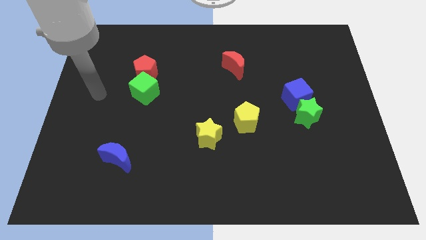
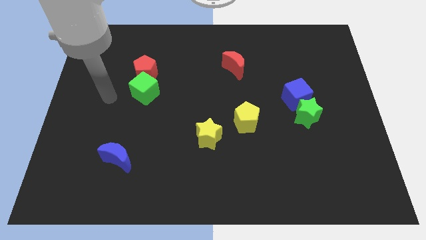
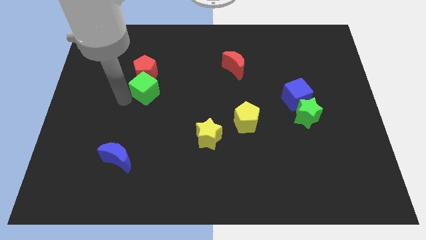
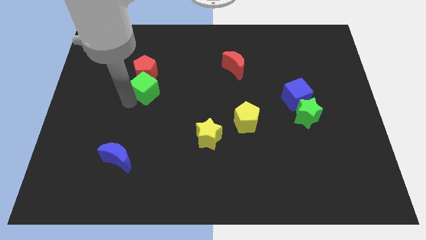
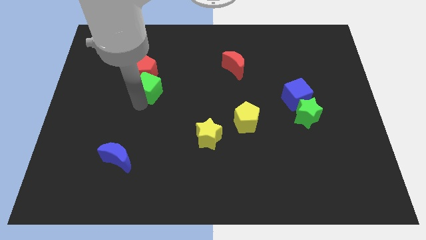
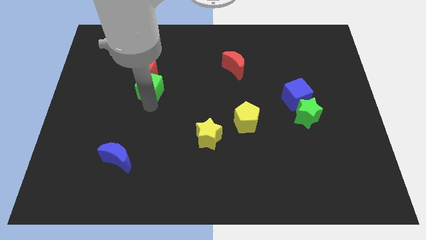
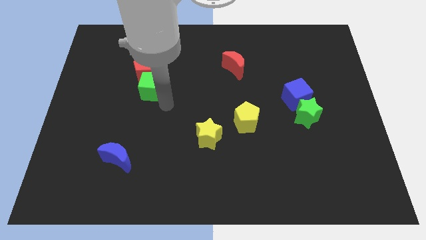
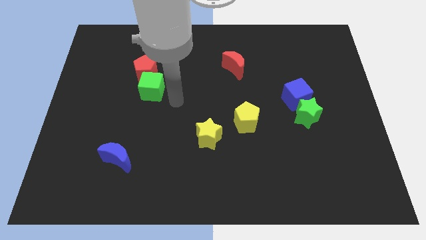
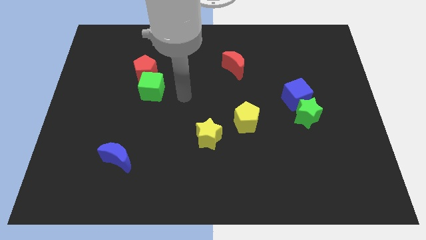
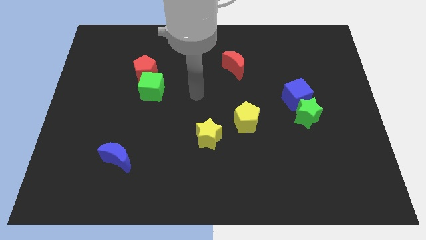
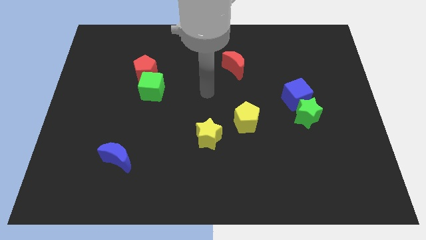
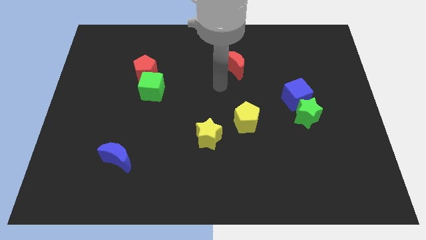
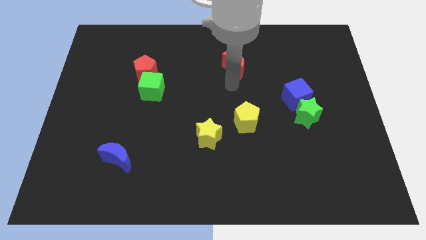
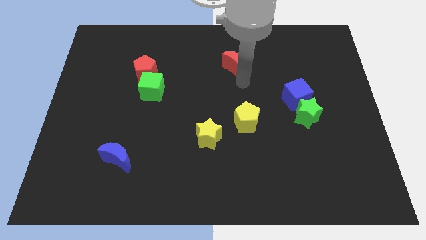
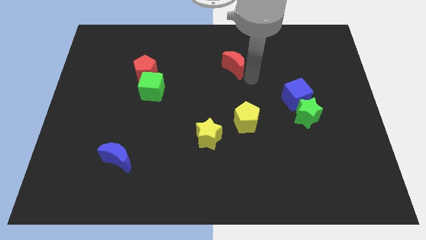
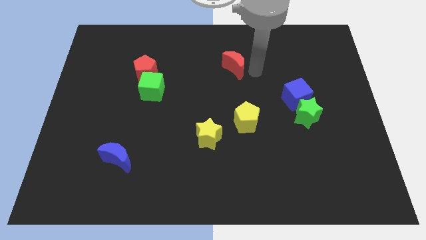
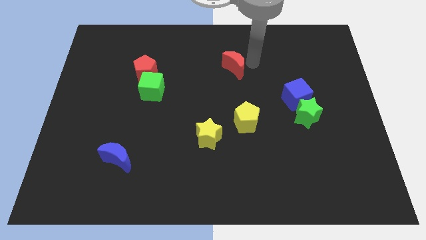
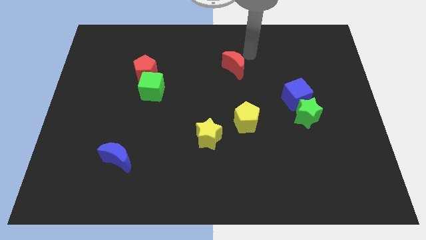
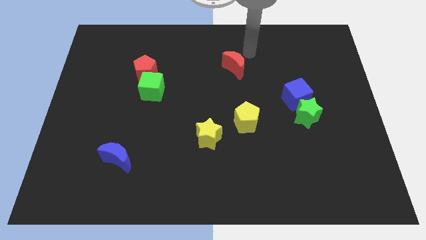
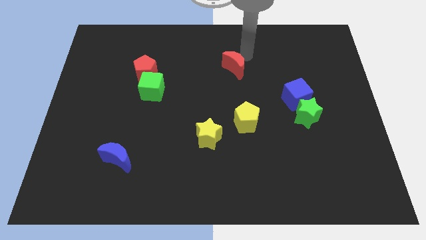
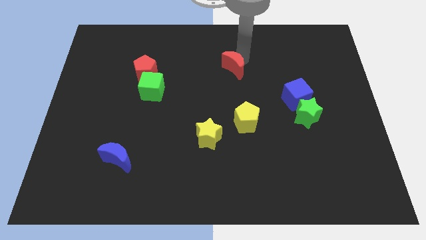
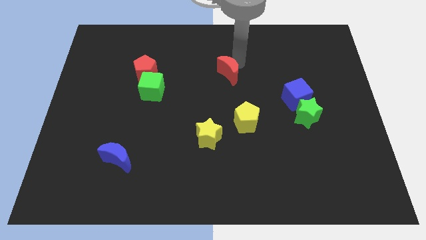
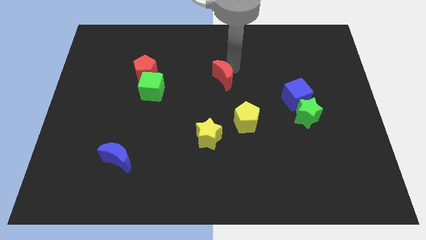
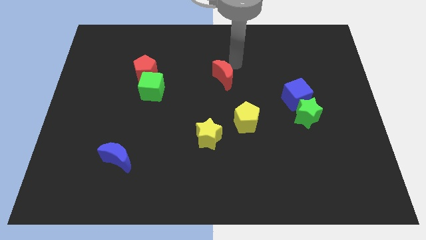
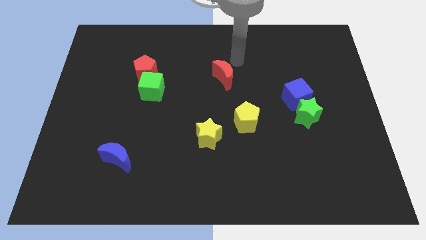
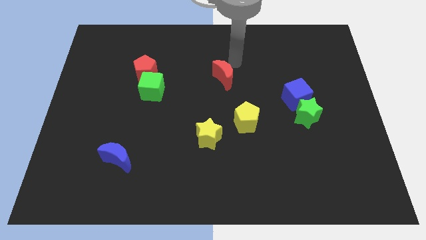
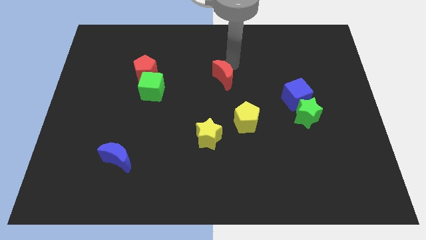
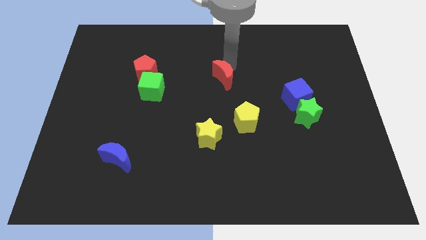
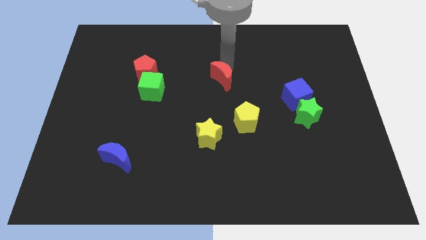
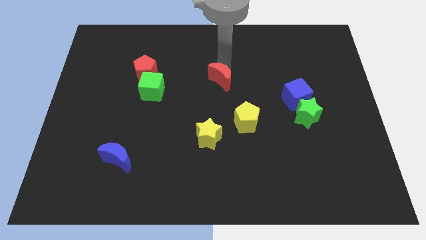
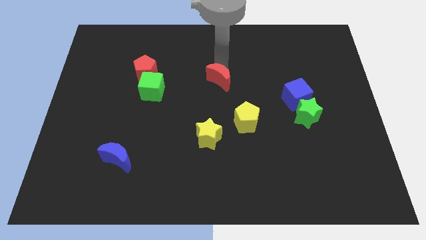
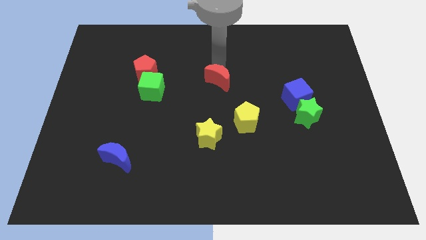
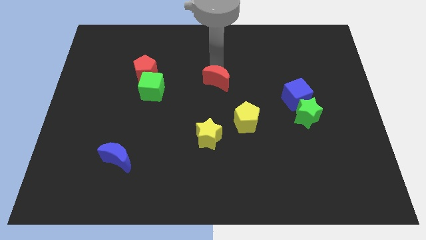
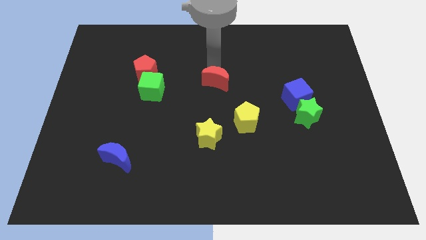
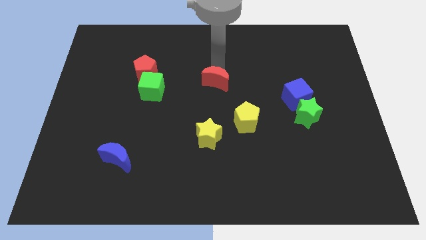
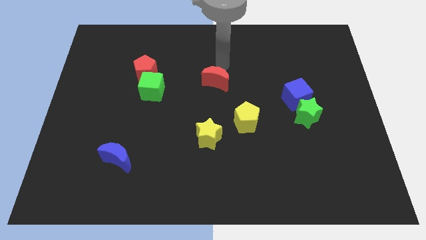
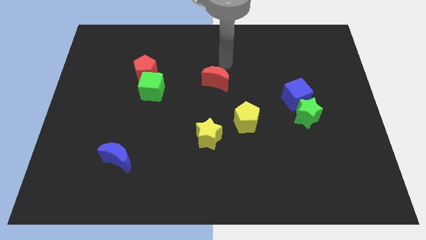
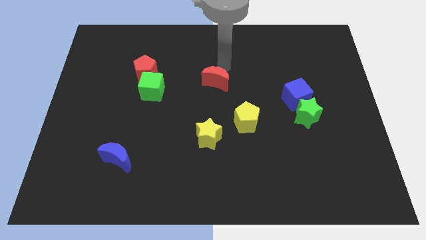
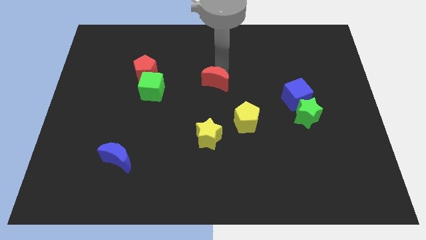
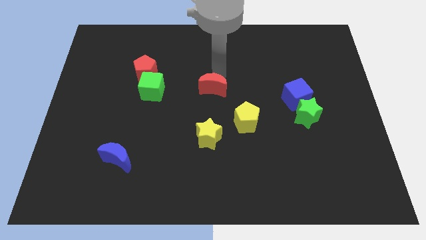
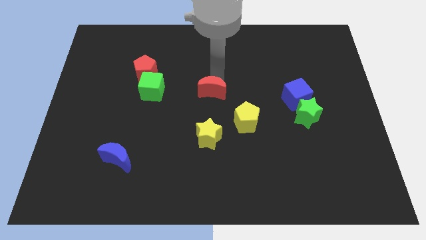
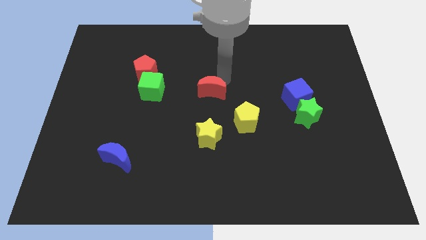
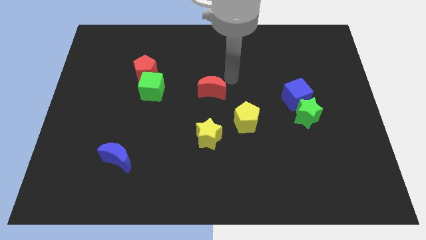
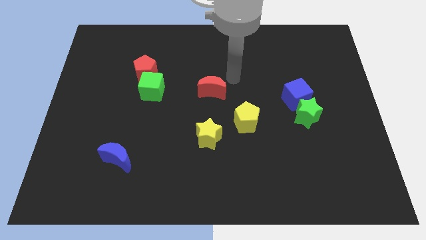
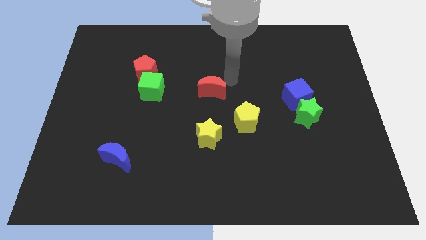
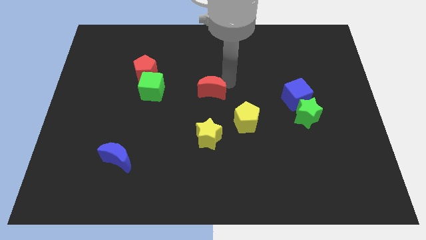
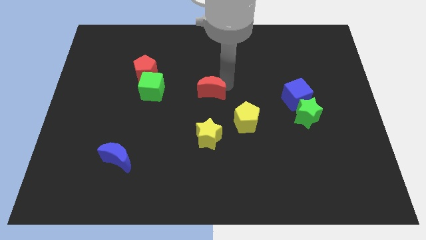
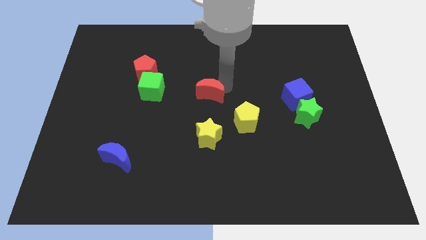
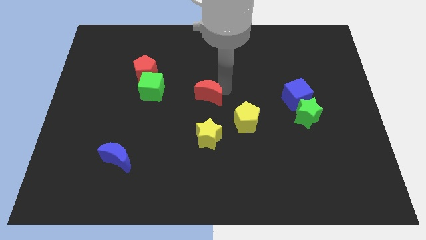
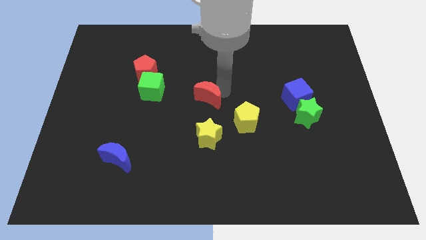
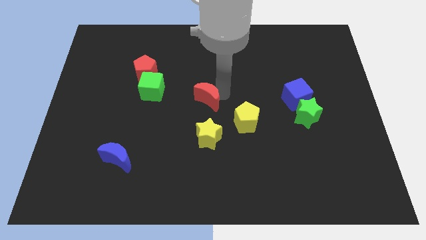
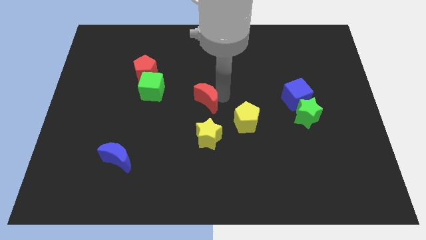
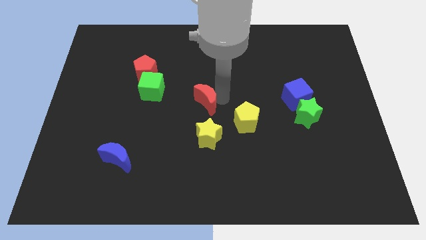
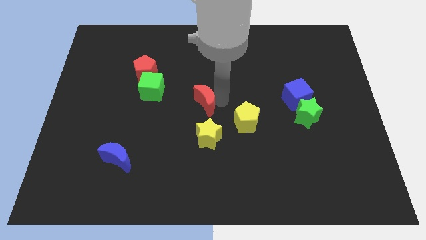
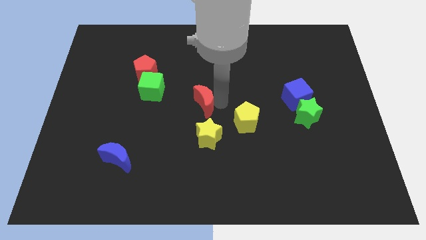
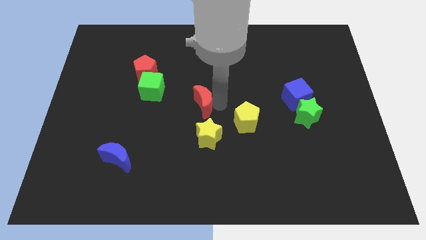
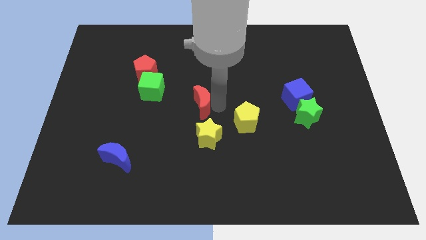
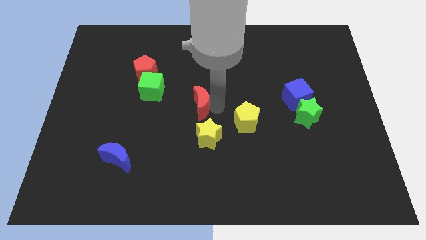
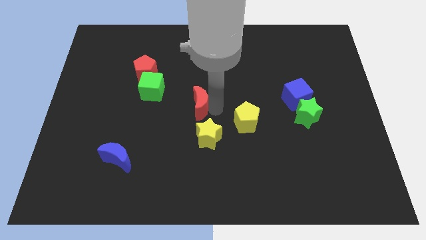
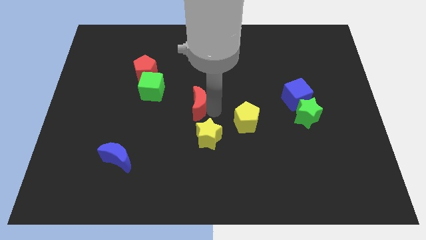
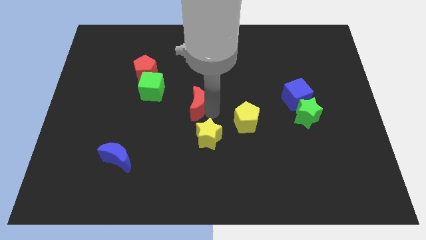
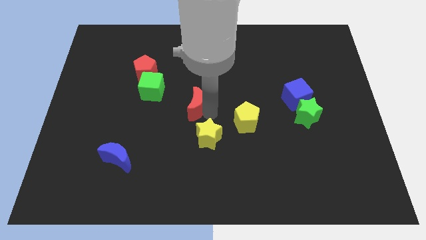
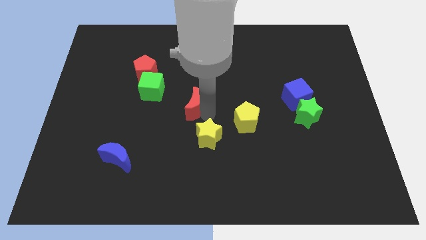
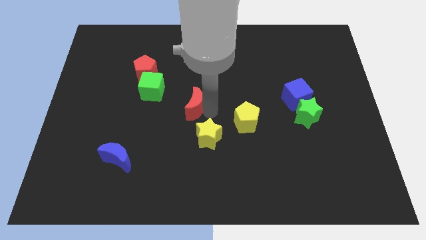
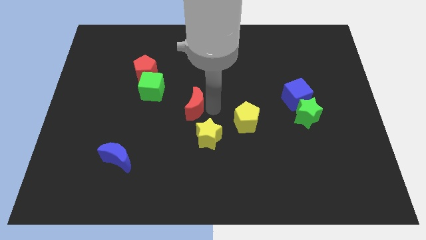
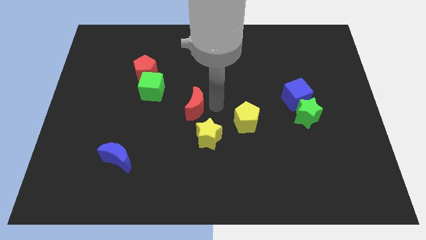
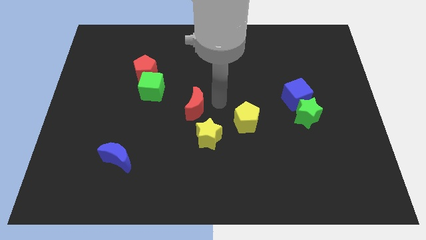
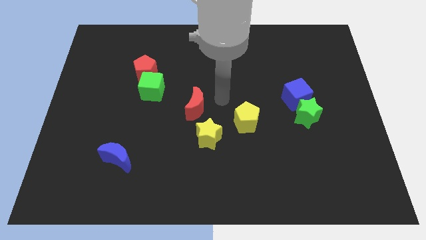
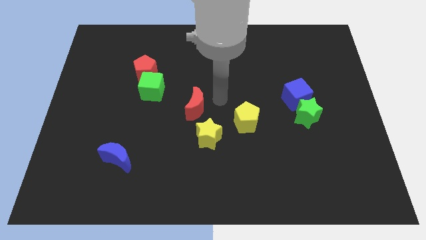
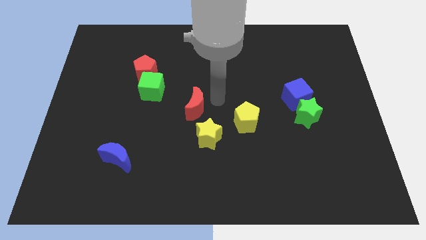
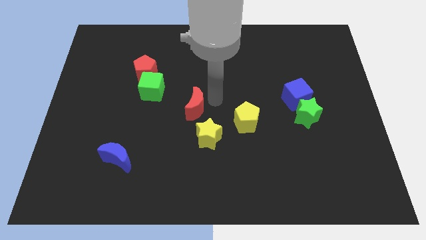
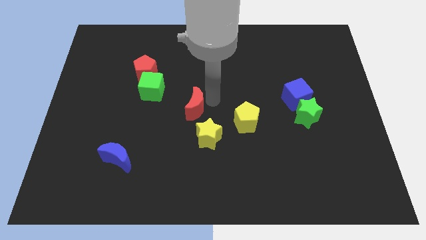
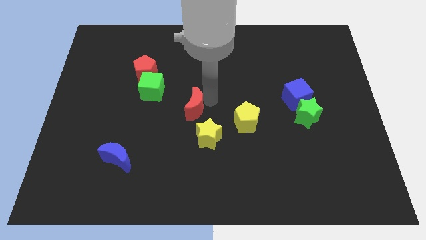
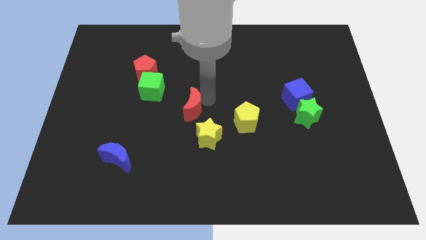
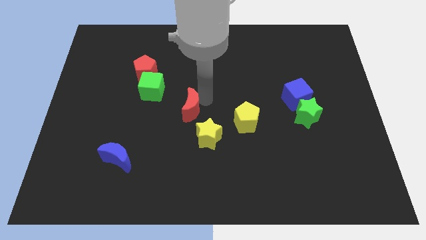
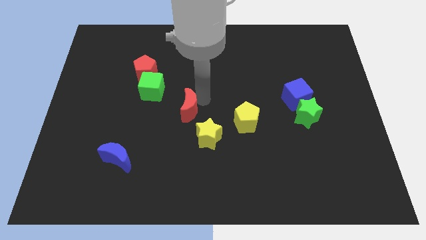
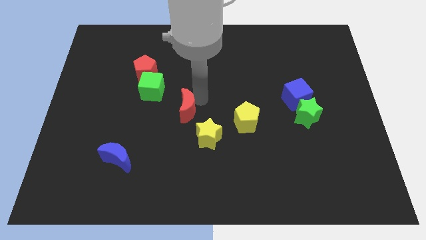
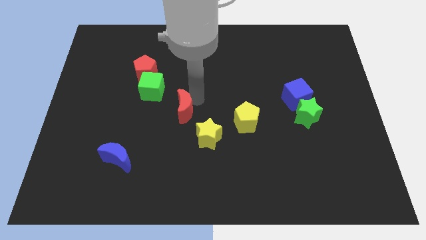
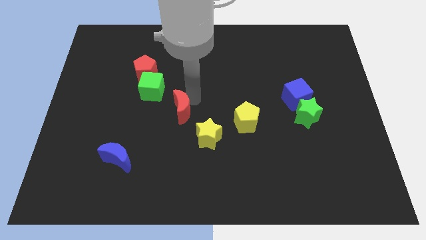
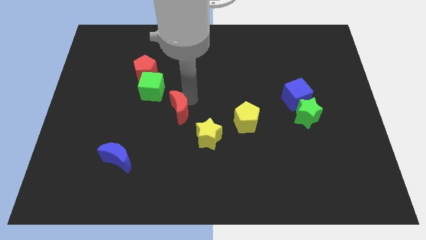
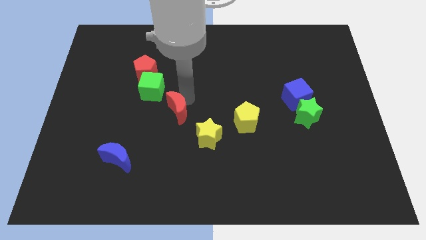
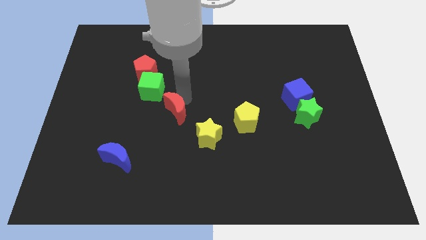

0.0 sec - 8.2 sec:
push the red moon down and then to the left
